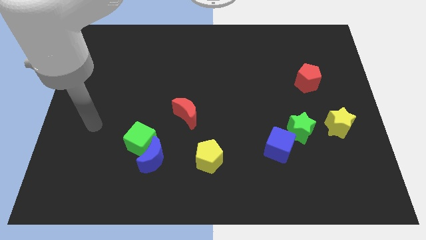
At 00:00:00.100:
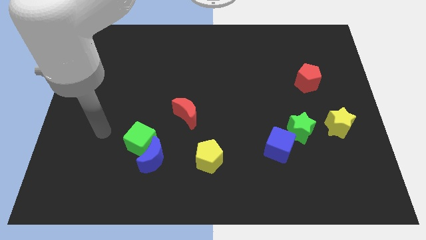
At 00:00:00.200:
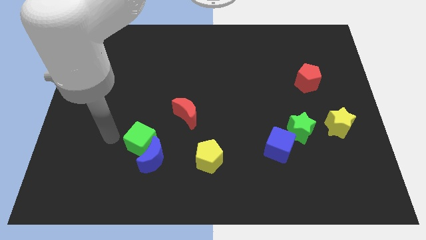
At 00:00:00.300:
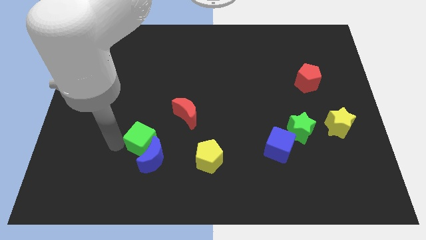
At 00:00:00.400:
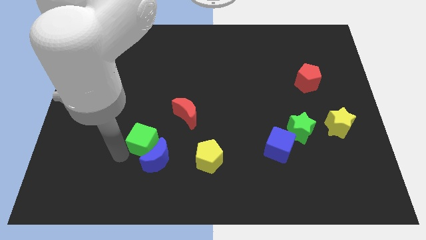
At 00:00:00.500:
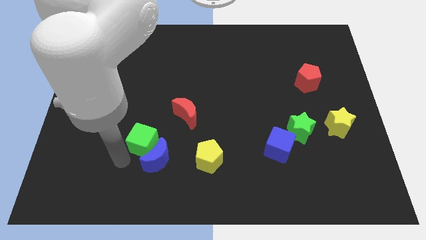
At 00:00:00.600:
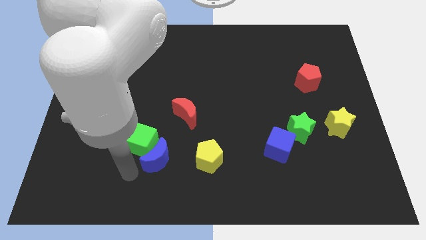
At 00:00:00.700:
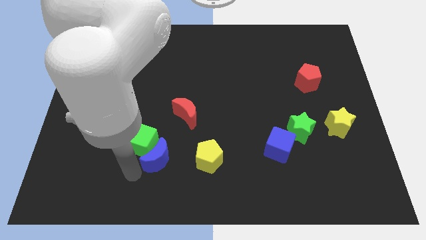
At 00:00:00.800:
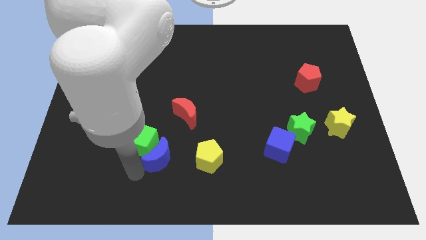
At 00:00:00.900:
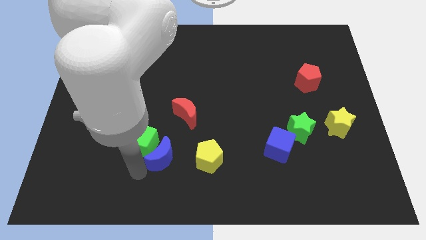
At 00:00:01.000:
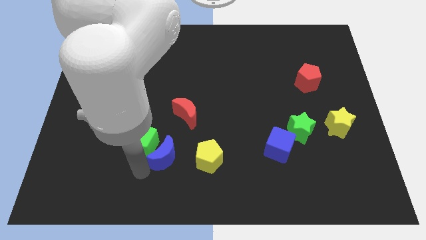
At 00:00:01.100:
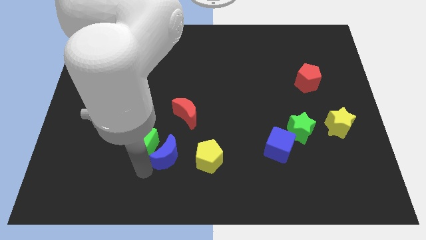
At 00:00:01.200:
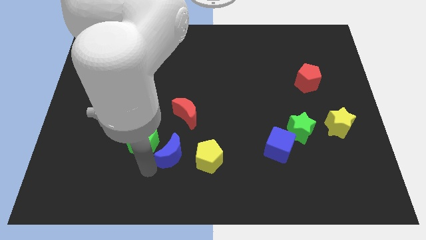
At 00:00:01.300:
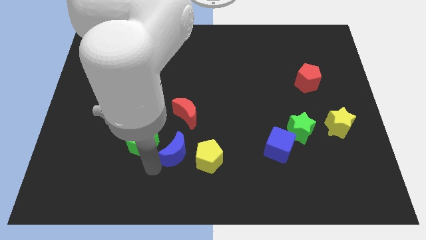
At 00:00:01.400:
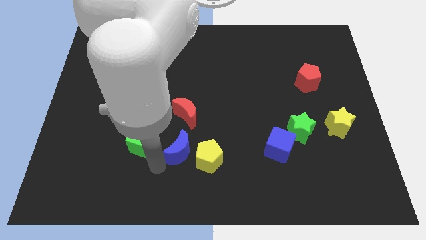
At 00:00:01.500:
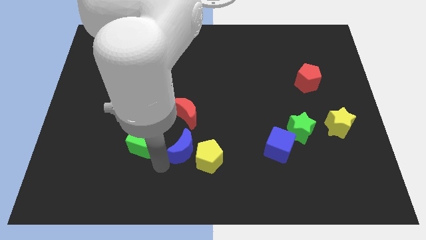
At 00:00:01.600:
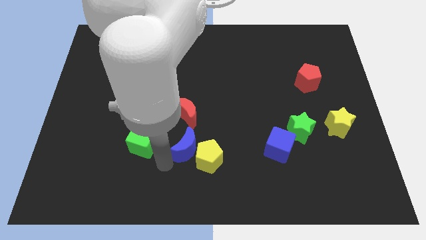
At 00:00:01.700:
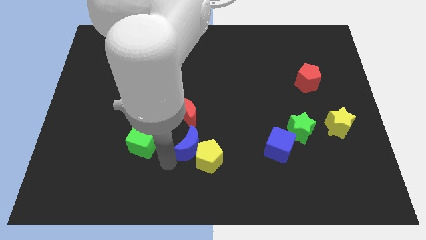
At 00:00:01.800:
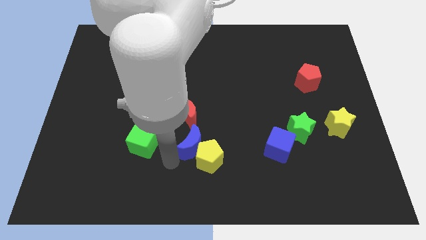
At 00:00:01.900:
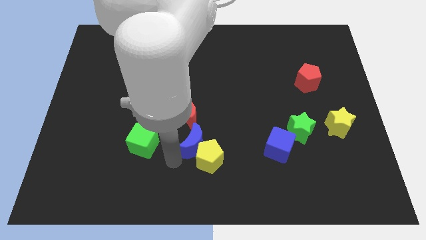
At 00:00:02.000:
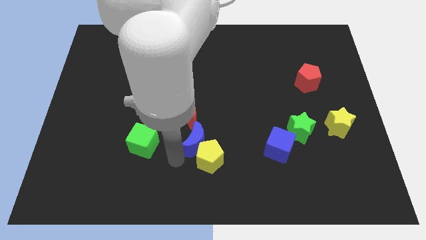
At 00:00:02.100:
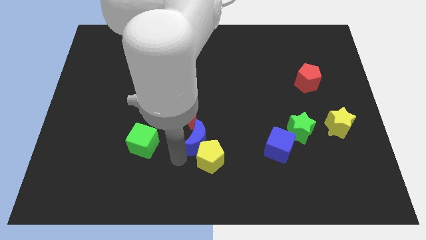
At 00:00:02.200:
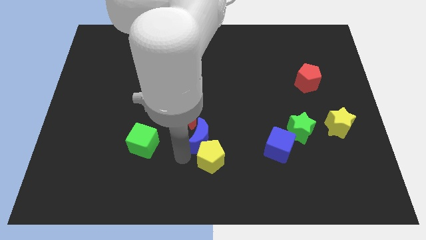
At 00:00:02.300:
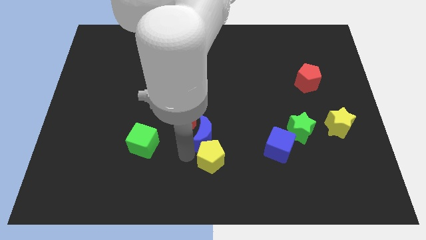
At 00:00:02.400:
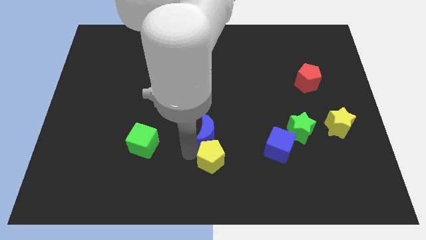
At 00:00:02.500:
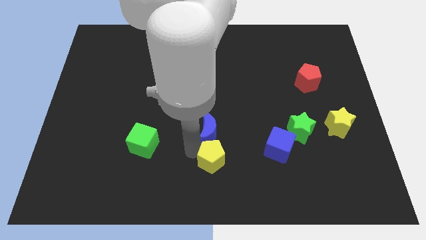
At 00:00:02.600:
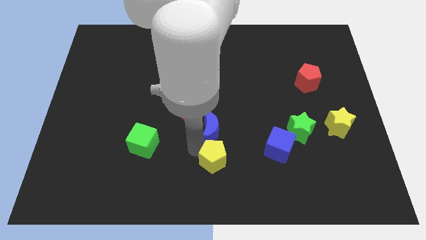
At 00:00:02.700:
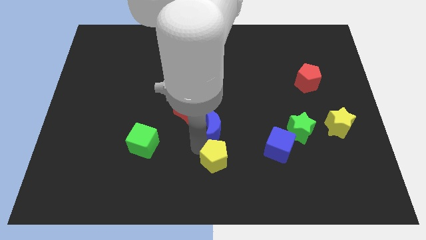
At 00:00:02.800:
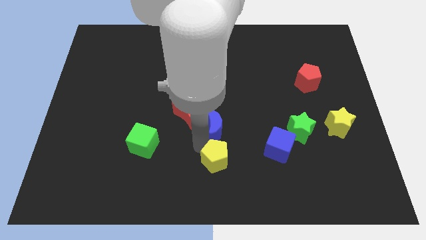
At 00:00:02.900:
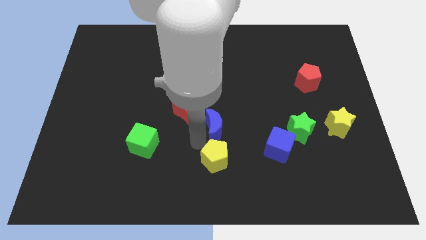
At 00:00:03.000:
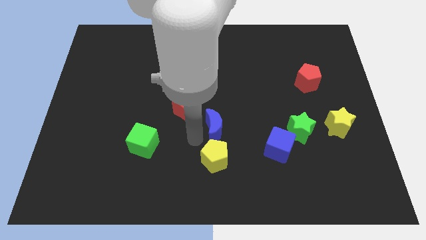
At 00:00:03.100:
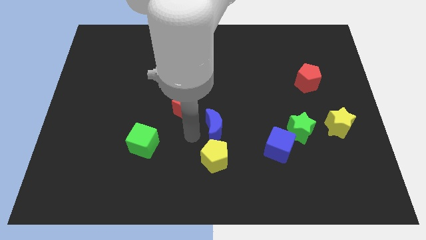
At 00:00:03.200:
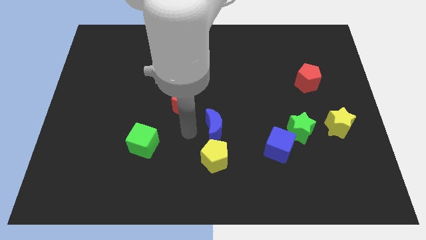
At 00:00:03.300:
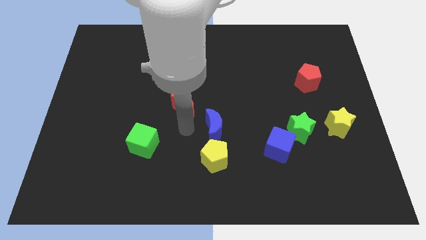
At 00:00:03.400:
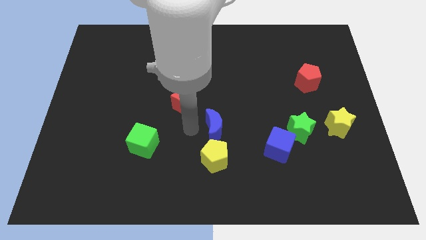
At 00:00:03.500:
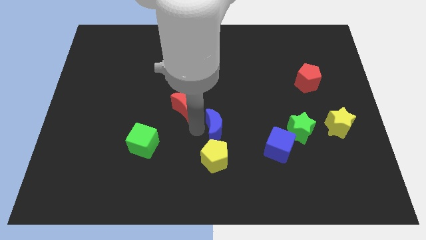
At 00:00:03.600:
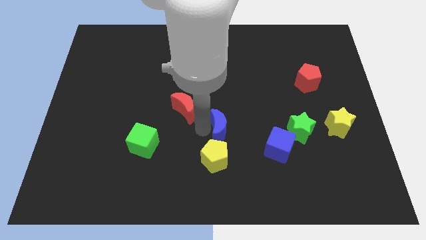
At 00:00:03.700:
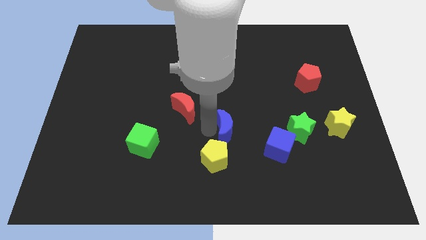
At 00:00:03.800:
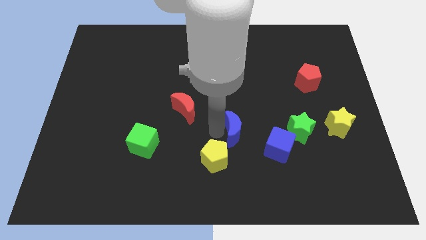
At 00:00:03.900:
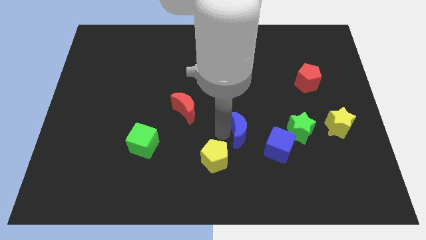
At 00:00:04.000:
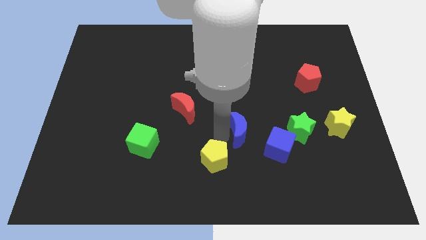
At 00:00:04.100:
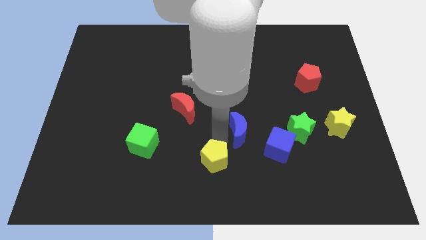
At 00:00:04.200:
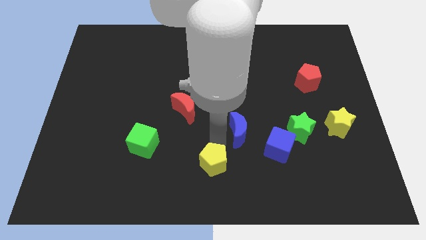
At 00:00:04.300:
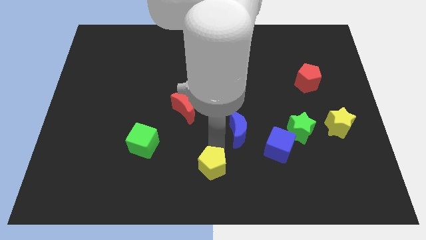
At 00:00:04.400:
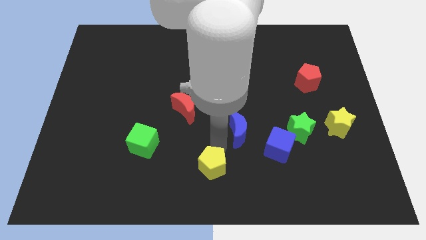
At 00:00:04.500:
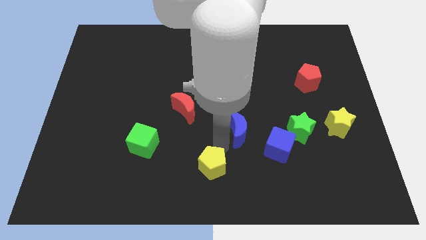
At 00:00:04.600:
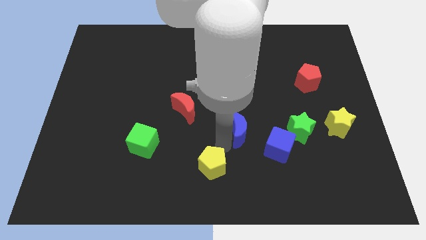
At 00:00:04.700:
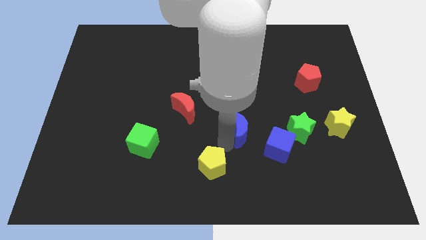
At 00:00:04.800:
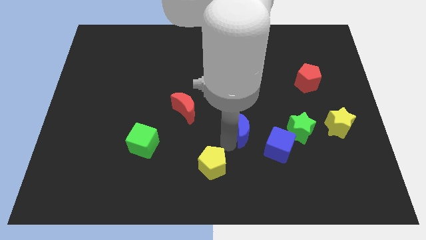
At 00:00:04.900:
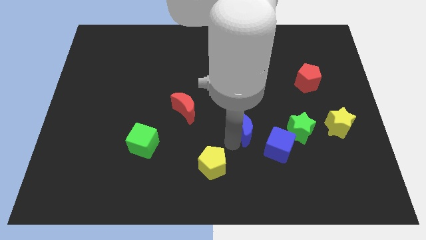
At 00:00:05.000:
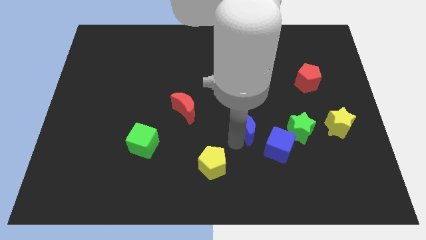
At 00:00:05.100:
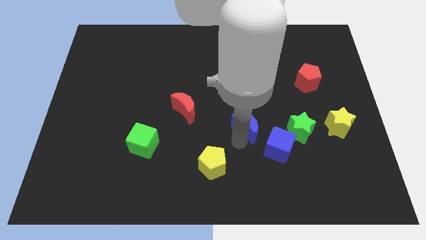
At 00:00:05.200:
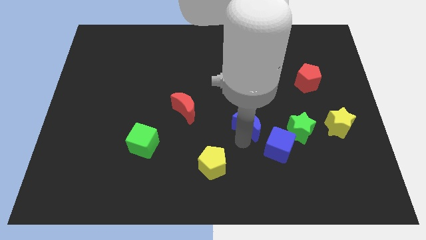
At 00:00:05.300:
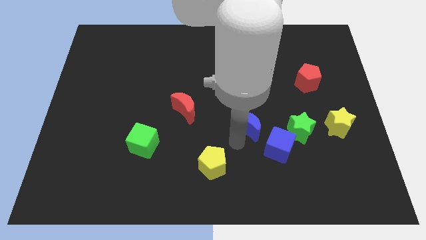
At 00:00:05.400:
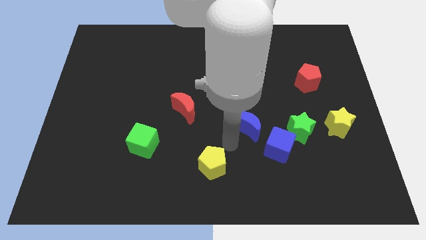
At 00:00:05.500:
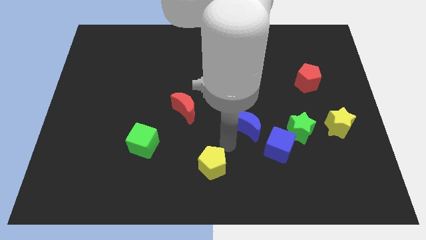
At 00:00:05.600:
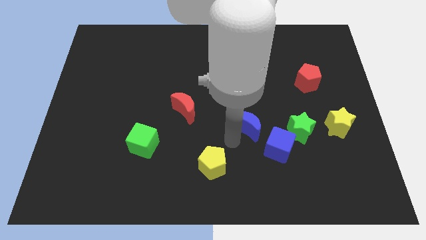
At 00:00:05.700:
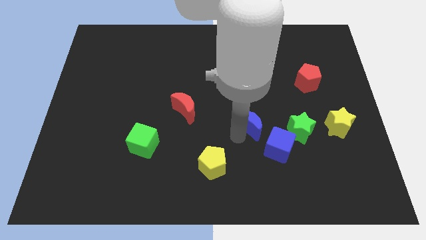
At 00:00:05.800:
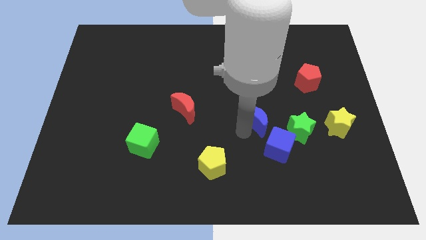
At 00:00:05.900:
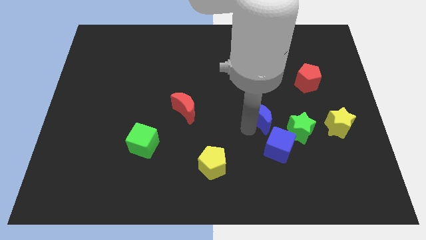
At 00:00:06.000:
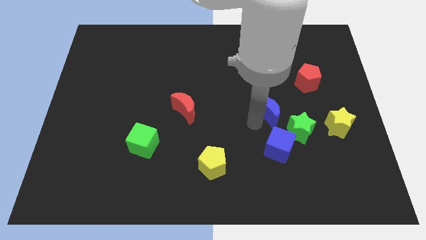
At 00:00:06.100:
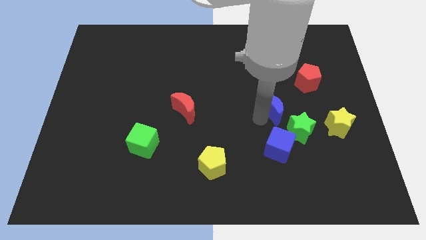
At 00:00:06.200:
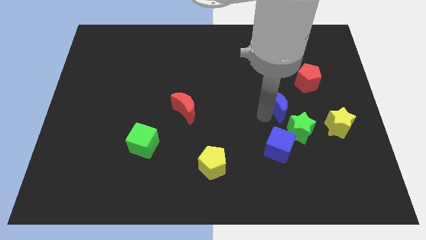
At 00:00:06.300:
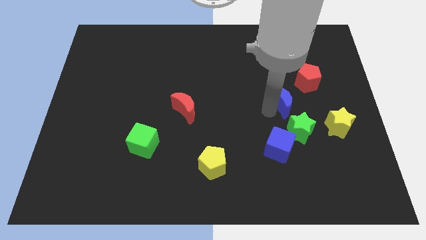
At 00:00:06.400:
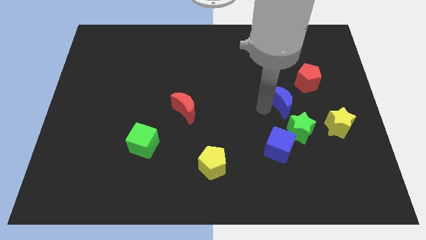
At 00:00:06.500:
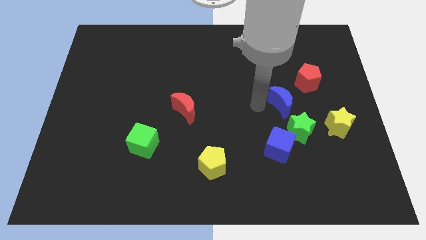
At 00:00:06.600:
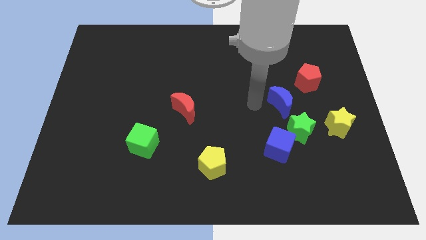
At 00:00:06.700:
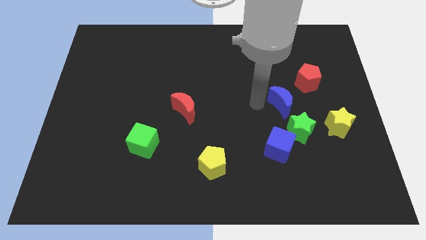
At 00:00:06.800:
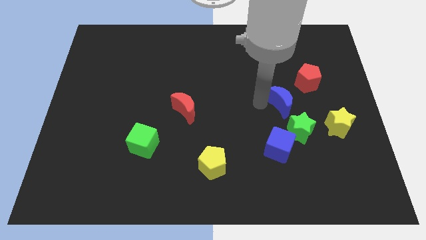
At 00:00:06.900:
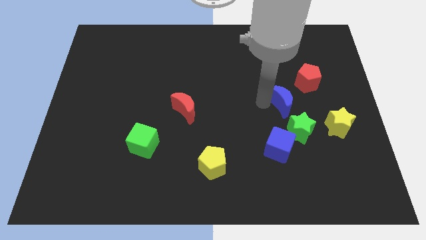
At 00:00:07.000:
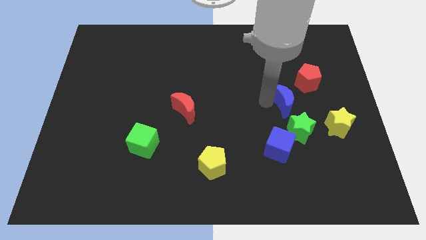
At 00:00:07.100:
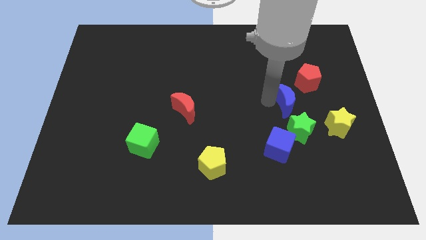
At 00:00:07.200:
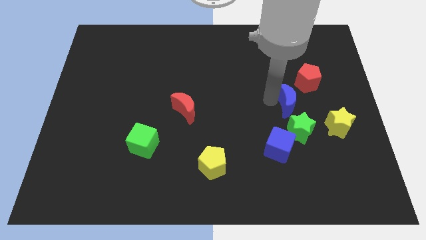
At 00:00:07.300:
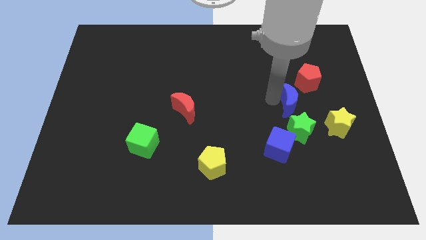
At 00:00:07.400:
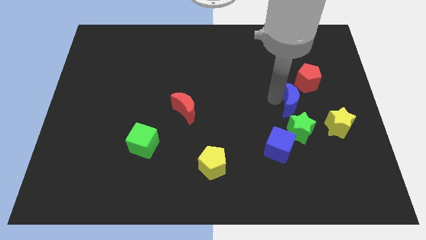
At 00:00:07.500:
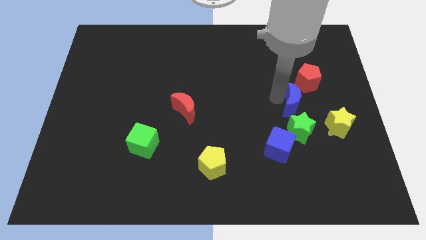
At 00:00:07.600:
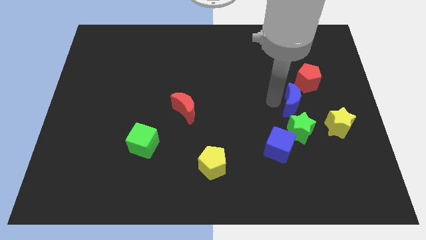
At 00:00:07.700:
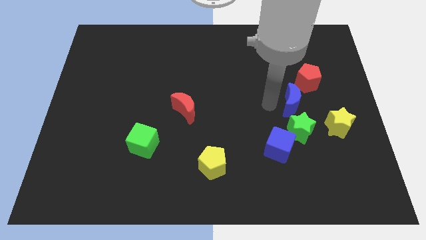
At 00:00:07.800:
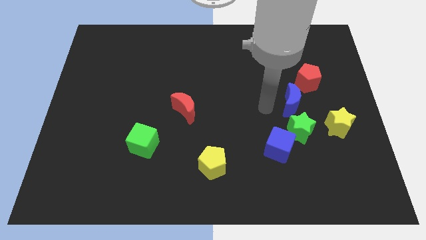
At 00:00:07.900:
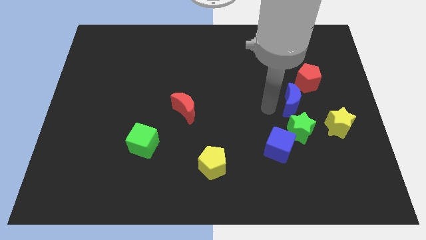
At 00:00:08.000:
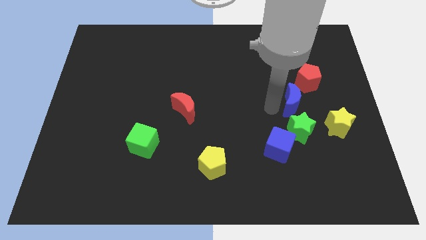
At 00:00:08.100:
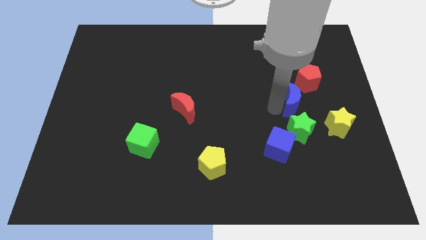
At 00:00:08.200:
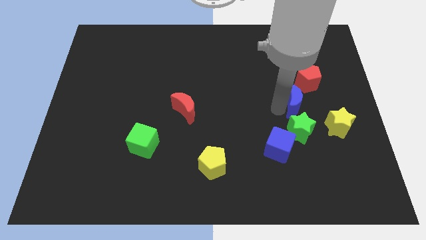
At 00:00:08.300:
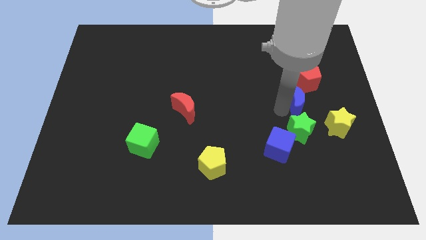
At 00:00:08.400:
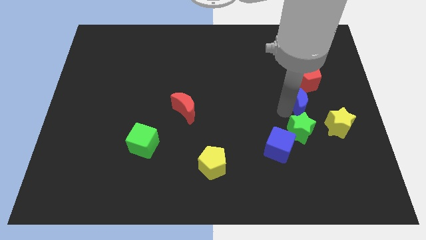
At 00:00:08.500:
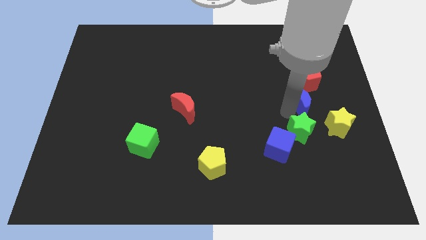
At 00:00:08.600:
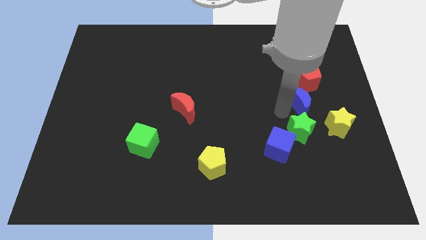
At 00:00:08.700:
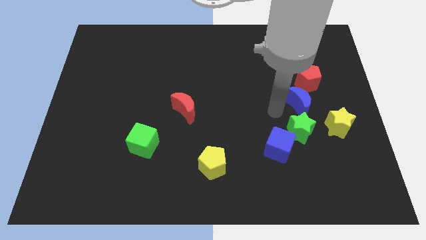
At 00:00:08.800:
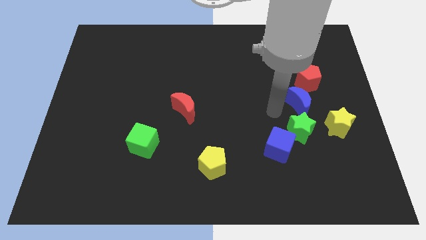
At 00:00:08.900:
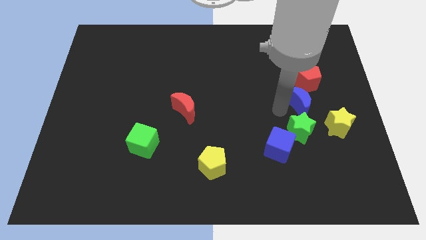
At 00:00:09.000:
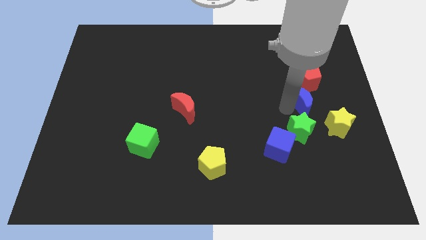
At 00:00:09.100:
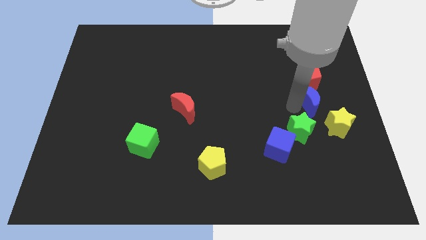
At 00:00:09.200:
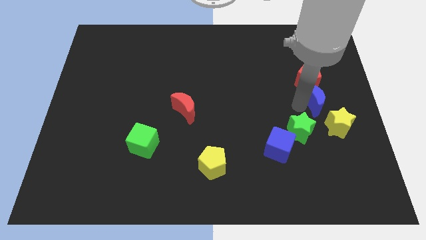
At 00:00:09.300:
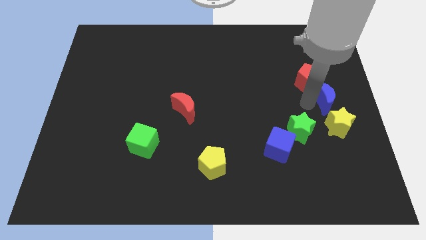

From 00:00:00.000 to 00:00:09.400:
slide the blue moon to the right side of the board
